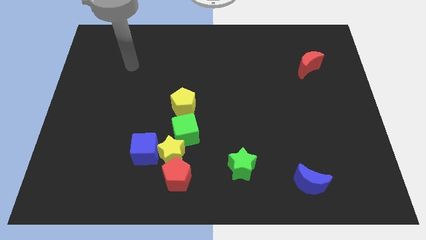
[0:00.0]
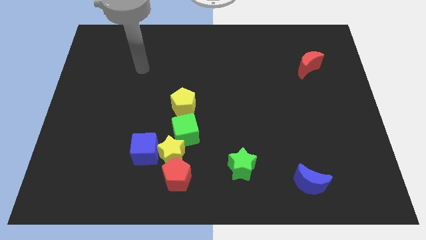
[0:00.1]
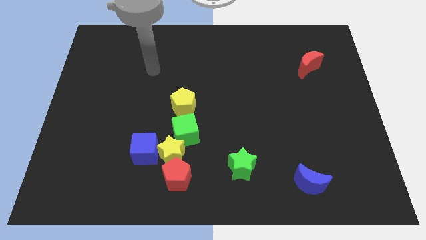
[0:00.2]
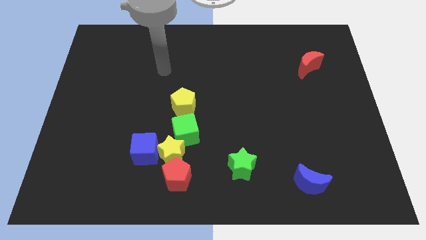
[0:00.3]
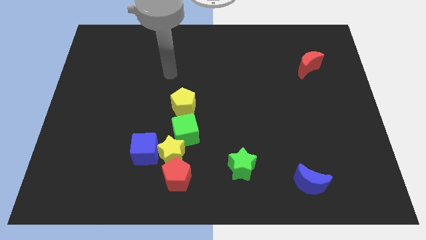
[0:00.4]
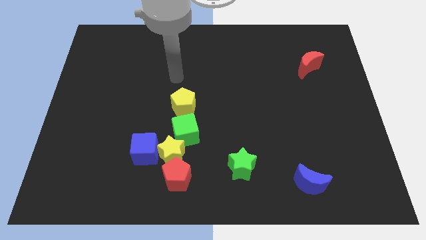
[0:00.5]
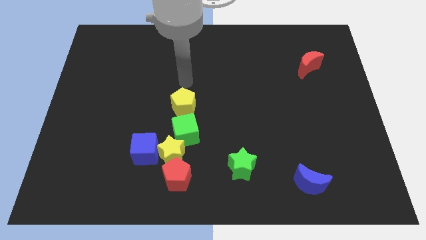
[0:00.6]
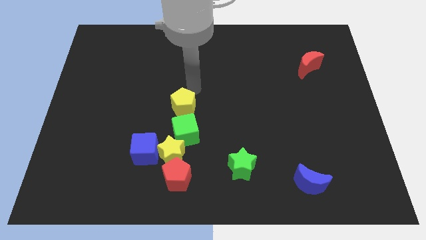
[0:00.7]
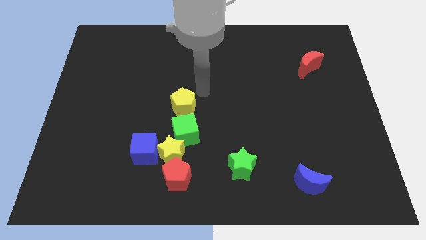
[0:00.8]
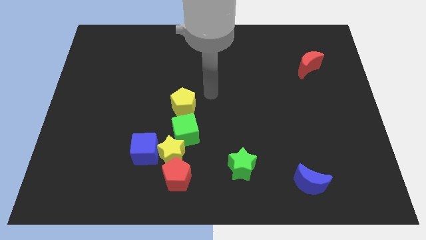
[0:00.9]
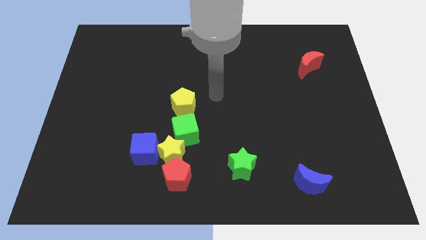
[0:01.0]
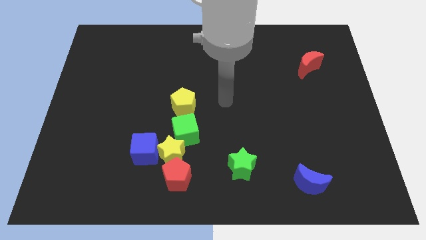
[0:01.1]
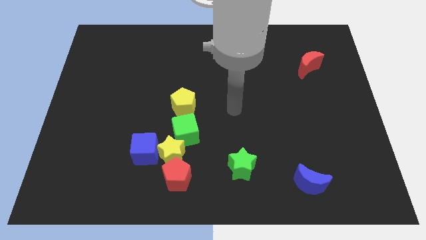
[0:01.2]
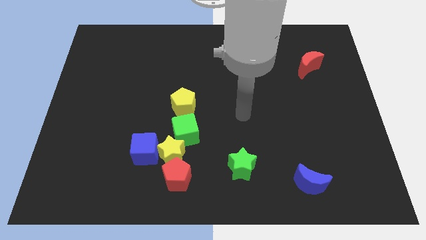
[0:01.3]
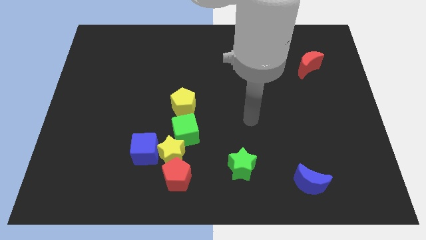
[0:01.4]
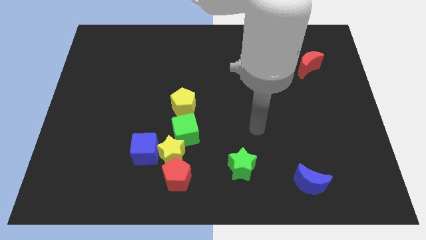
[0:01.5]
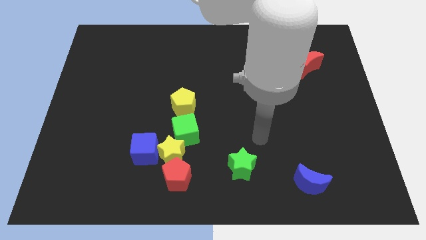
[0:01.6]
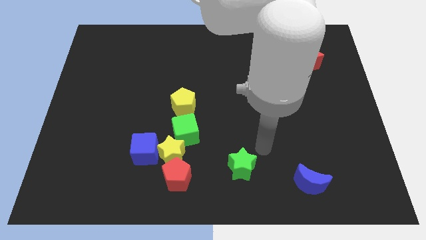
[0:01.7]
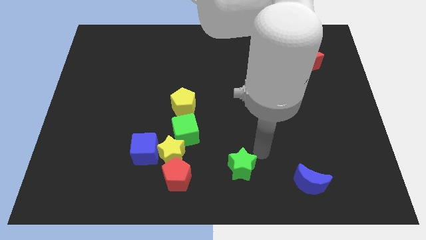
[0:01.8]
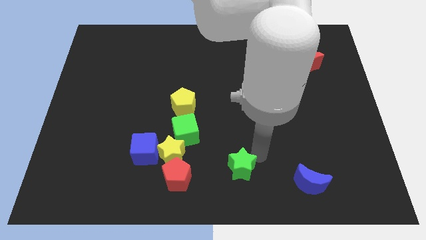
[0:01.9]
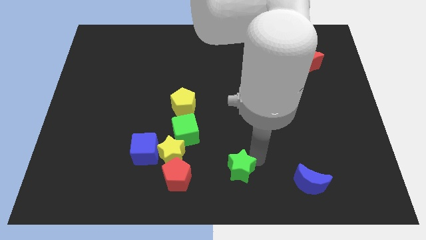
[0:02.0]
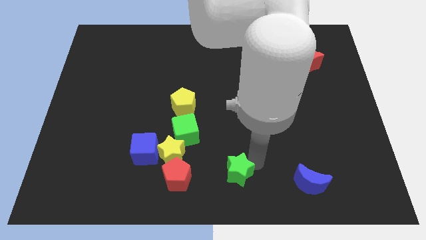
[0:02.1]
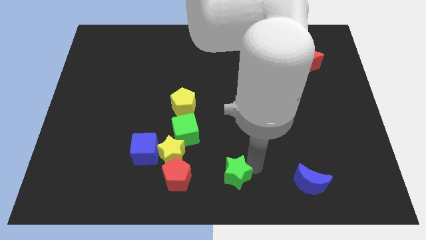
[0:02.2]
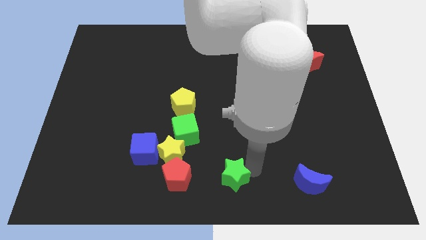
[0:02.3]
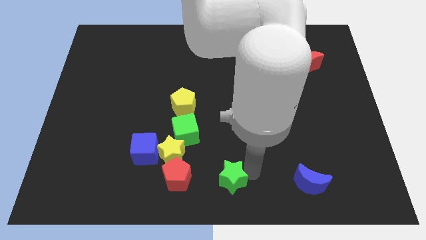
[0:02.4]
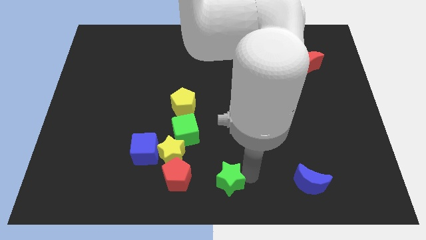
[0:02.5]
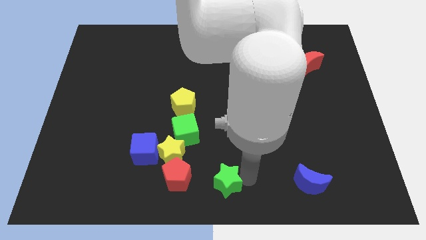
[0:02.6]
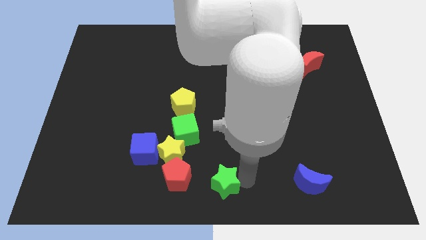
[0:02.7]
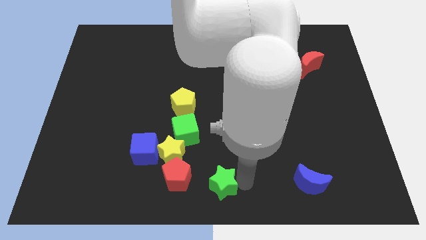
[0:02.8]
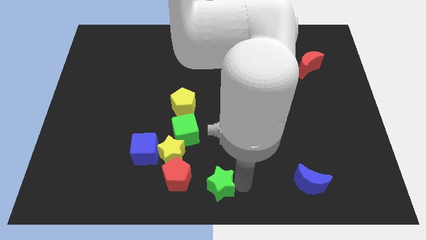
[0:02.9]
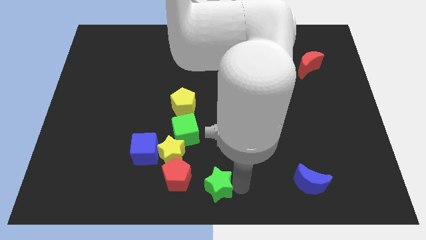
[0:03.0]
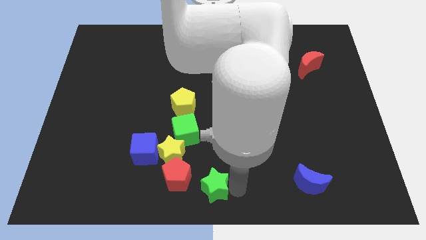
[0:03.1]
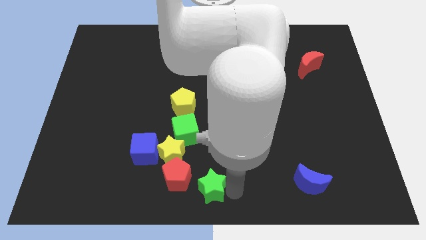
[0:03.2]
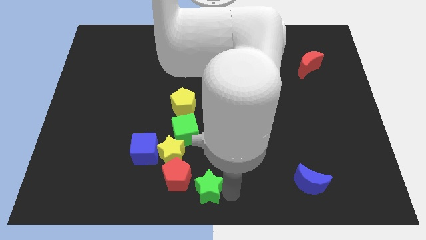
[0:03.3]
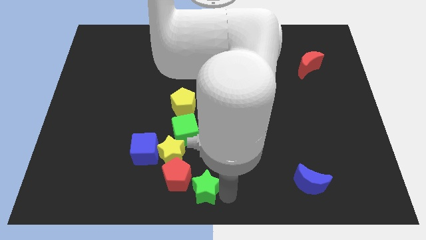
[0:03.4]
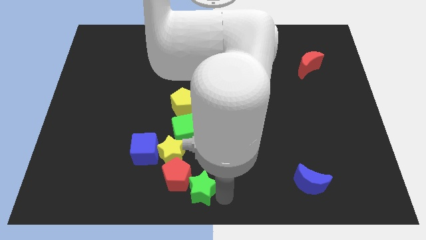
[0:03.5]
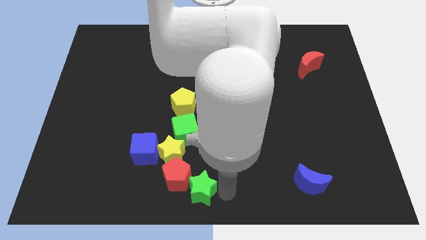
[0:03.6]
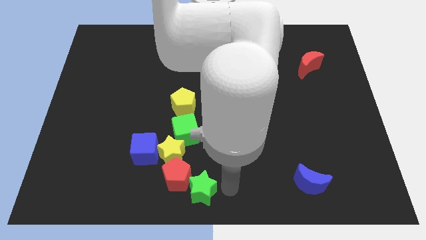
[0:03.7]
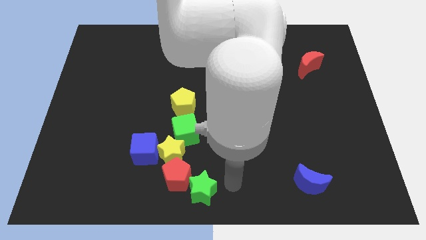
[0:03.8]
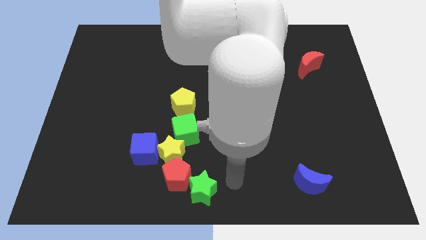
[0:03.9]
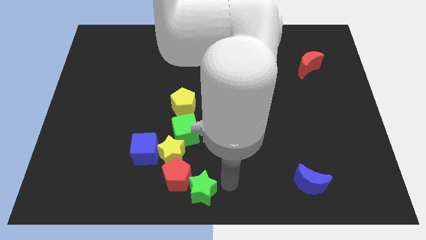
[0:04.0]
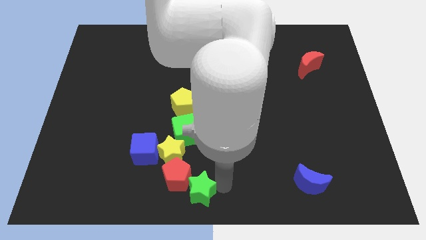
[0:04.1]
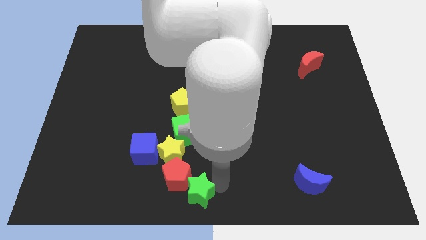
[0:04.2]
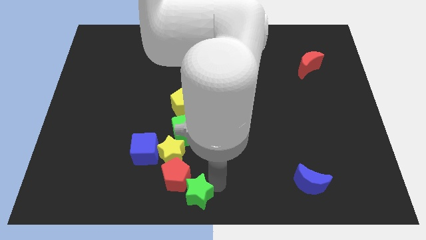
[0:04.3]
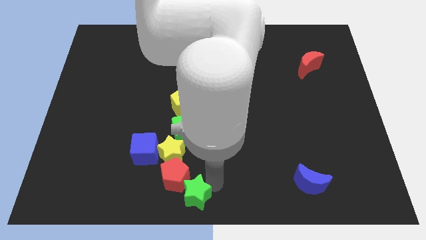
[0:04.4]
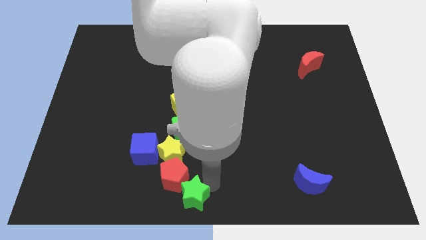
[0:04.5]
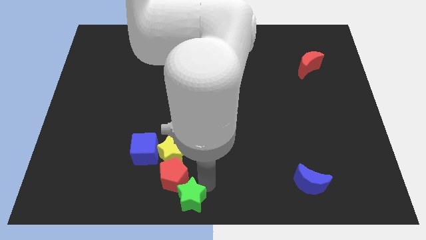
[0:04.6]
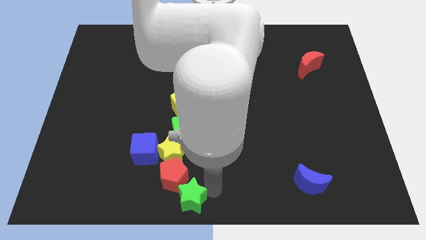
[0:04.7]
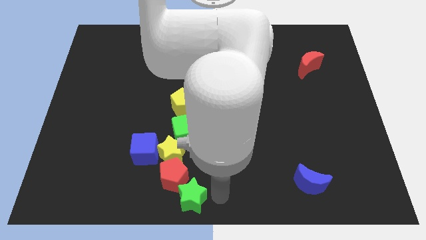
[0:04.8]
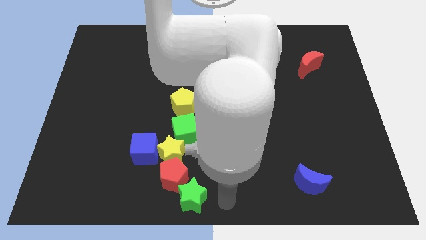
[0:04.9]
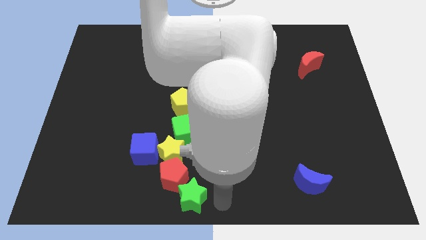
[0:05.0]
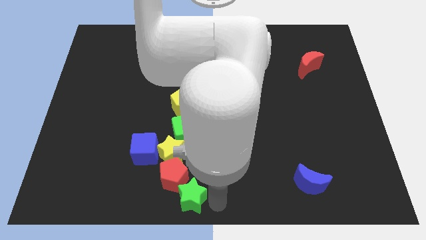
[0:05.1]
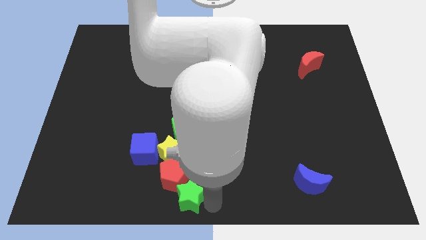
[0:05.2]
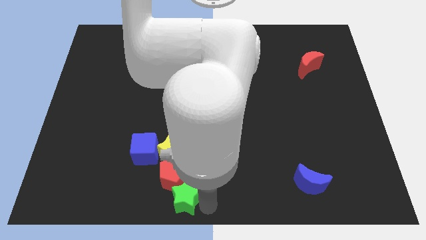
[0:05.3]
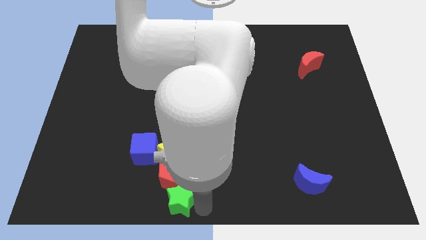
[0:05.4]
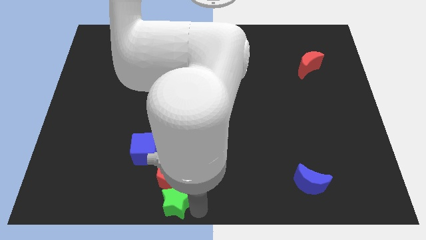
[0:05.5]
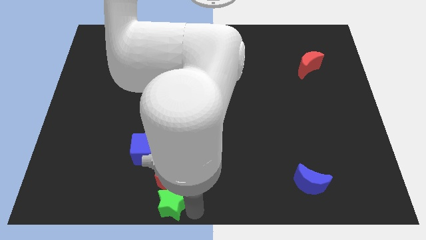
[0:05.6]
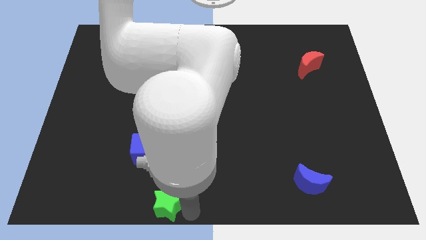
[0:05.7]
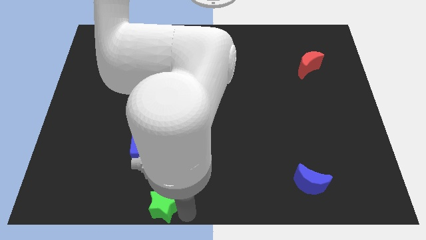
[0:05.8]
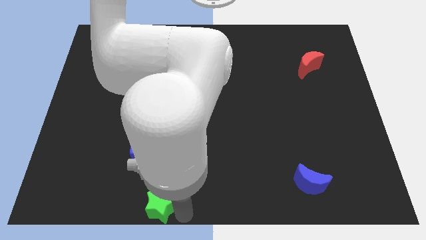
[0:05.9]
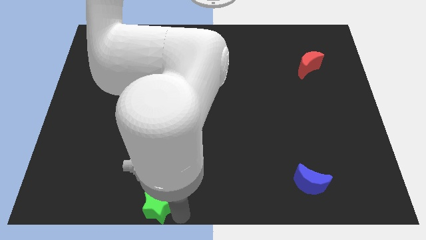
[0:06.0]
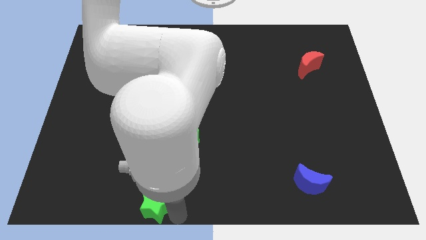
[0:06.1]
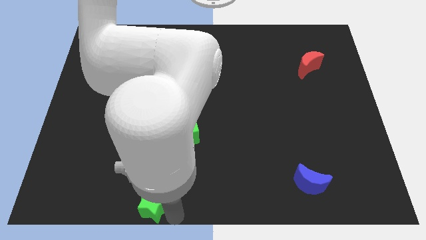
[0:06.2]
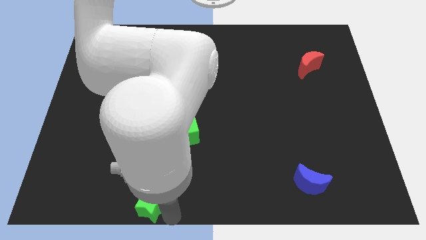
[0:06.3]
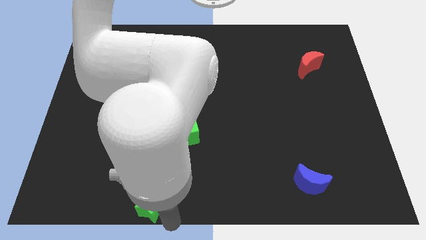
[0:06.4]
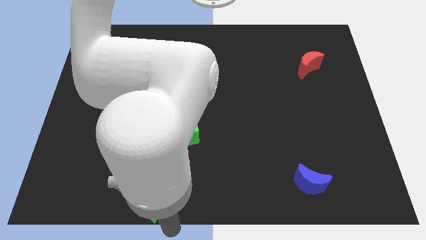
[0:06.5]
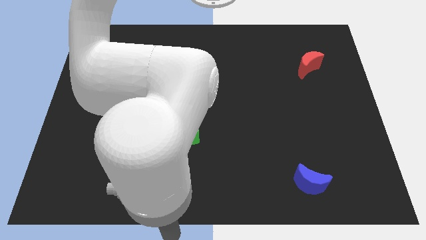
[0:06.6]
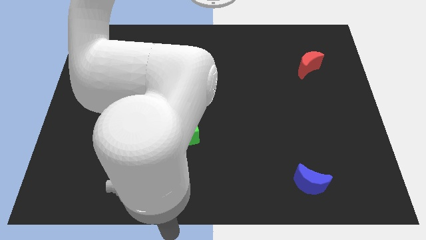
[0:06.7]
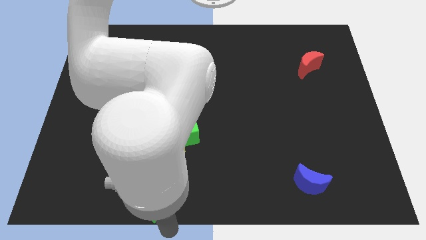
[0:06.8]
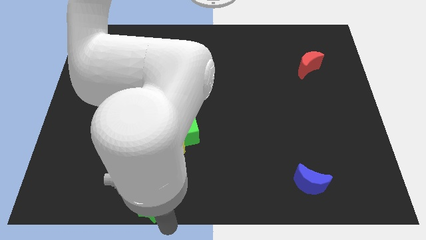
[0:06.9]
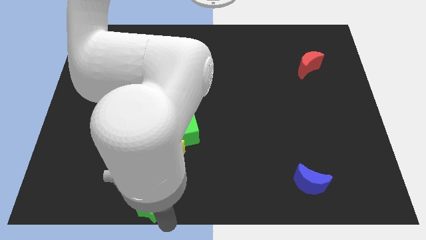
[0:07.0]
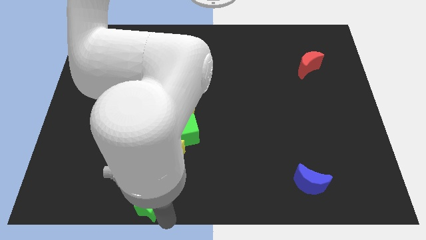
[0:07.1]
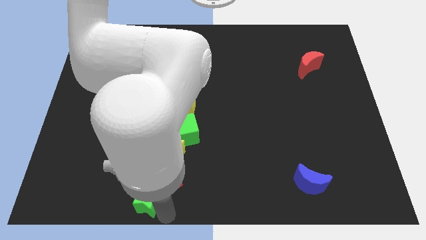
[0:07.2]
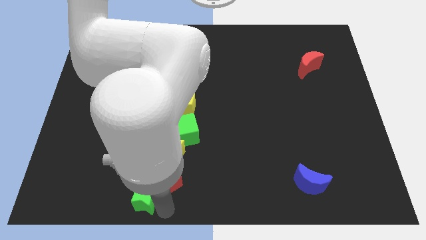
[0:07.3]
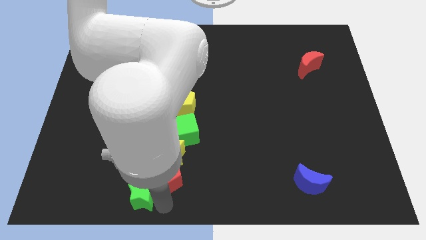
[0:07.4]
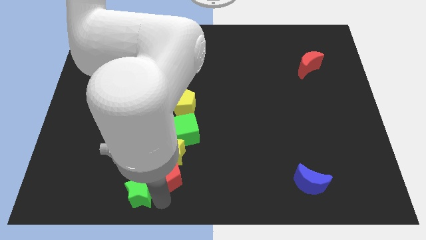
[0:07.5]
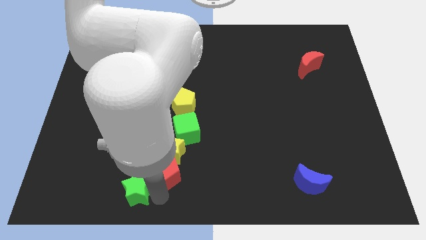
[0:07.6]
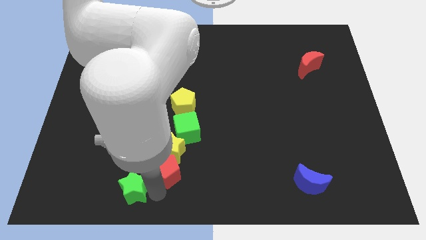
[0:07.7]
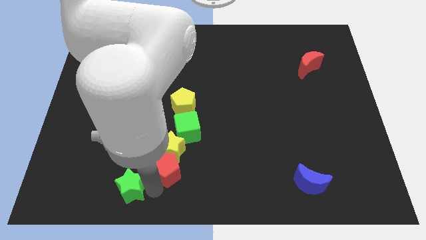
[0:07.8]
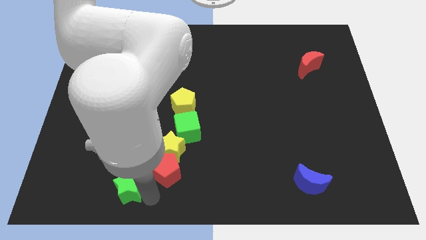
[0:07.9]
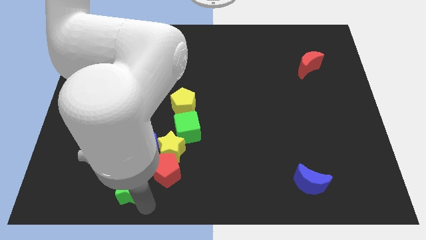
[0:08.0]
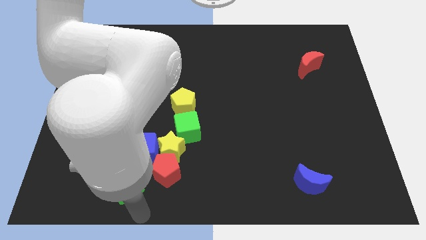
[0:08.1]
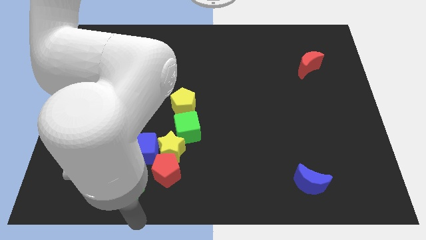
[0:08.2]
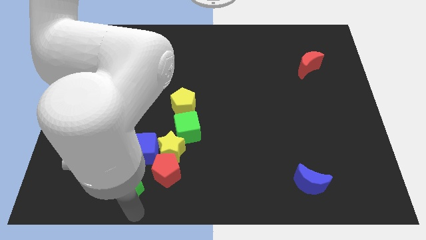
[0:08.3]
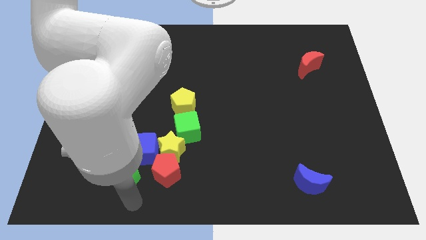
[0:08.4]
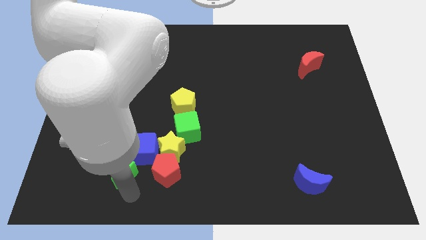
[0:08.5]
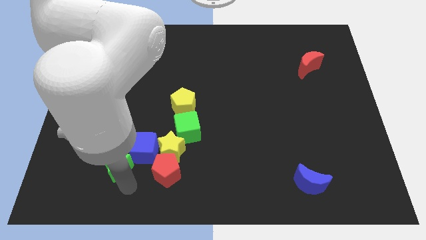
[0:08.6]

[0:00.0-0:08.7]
push the green star just left of the yellow star
